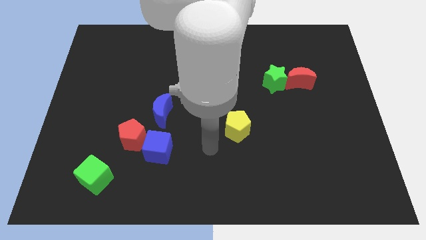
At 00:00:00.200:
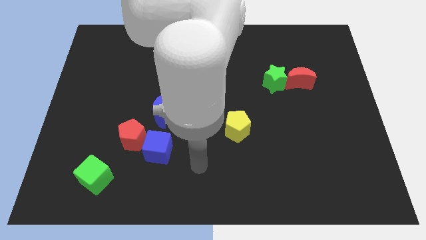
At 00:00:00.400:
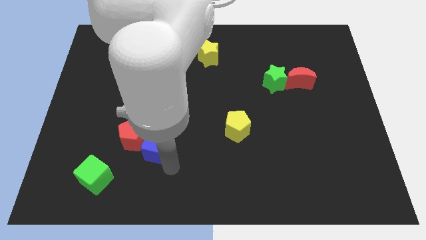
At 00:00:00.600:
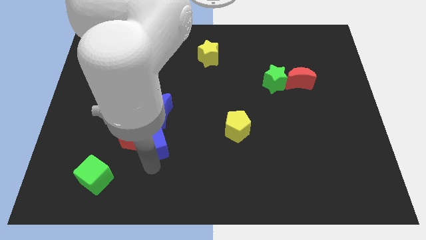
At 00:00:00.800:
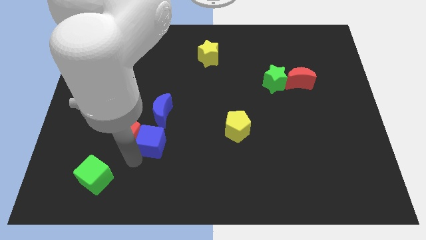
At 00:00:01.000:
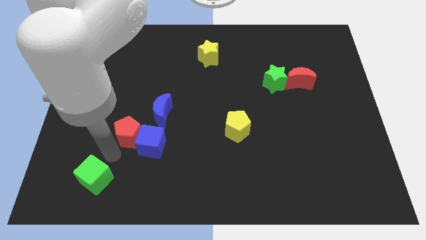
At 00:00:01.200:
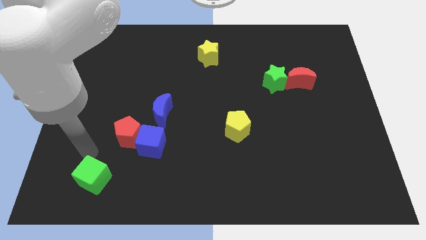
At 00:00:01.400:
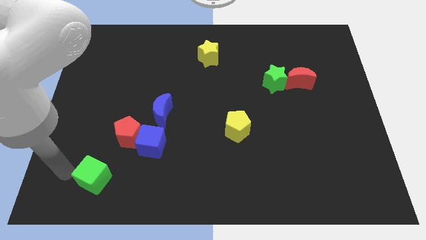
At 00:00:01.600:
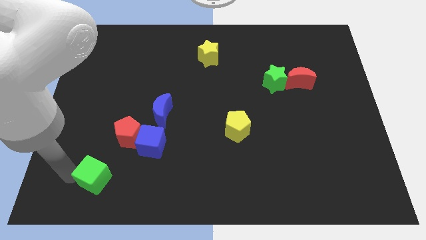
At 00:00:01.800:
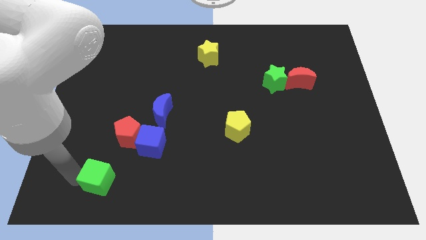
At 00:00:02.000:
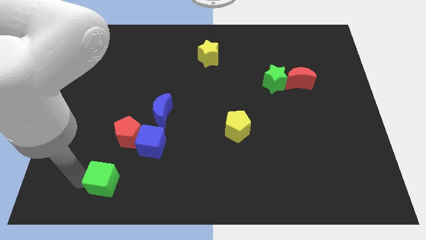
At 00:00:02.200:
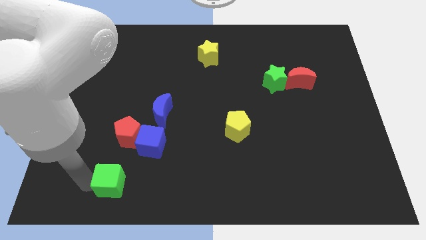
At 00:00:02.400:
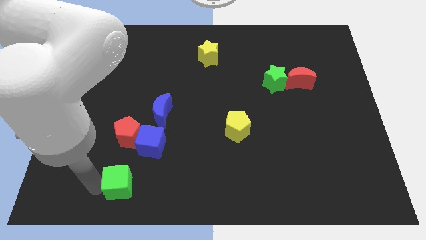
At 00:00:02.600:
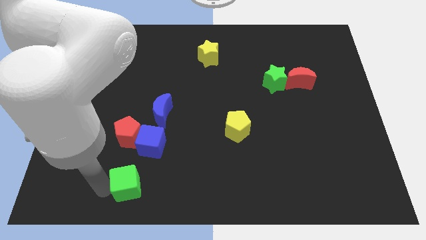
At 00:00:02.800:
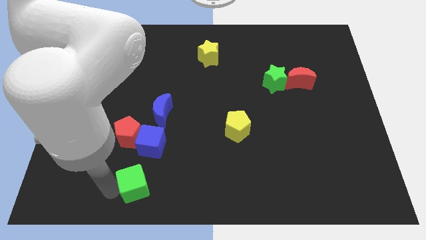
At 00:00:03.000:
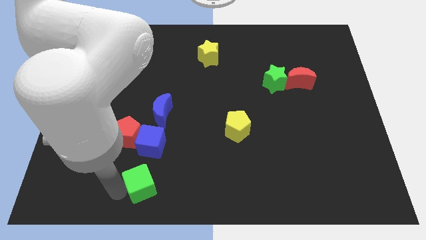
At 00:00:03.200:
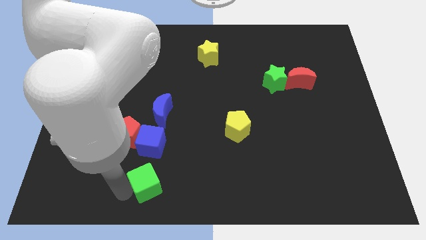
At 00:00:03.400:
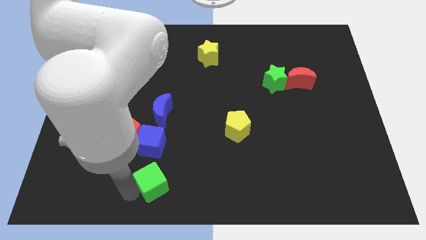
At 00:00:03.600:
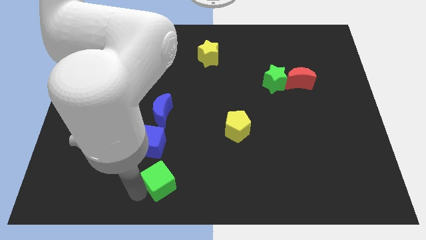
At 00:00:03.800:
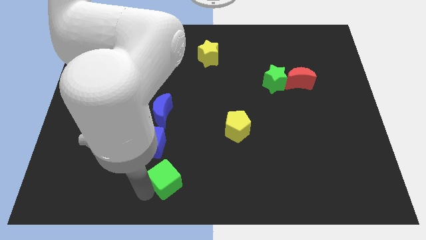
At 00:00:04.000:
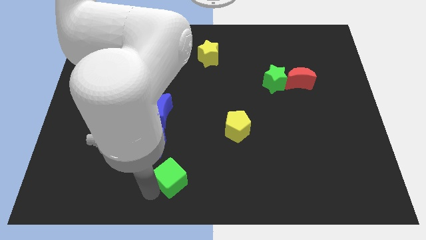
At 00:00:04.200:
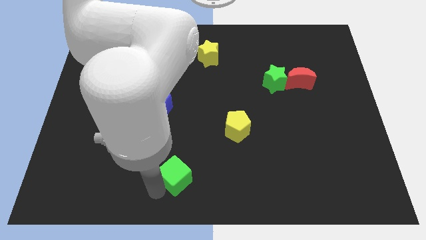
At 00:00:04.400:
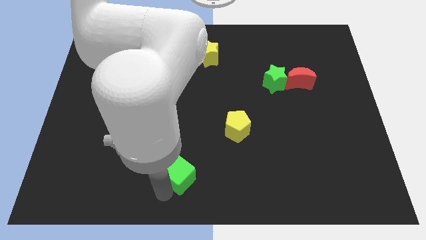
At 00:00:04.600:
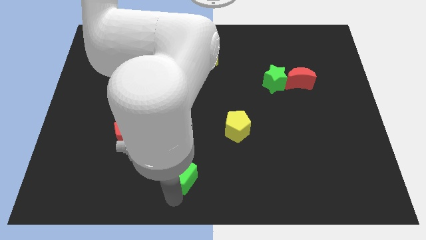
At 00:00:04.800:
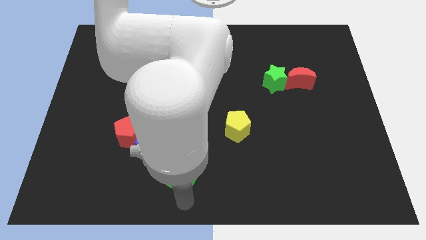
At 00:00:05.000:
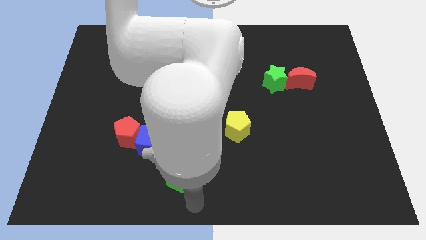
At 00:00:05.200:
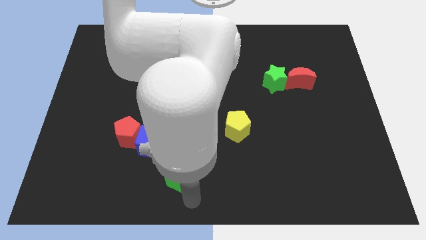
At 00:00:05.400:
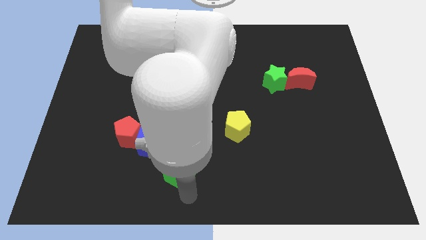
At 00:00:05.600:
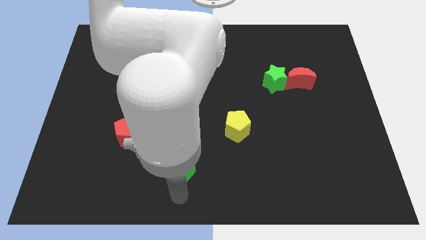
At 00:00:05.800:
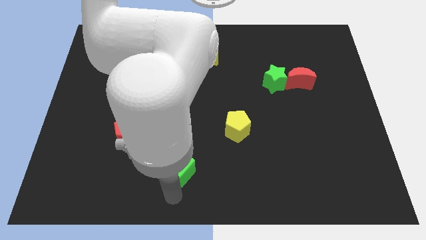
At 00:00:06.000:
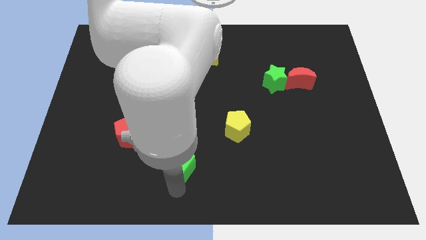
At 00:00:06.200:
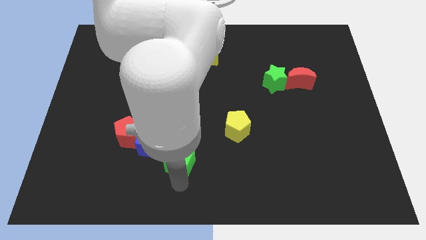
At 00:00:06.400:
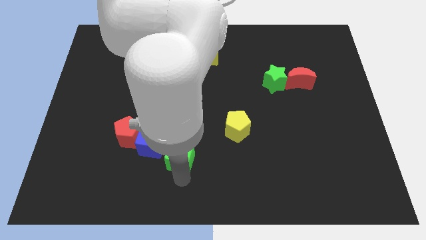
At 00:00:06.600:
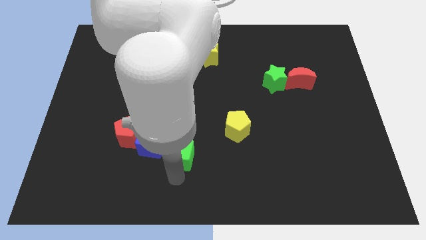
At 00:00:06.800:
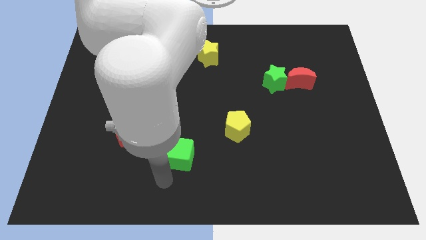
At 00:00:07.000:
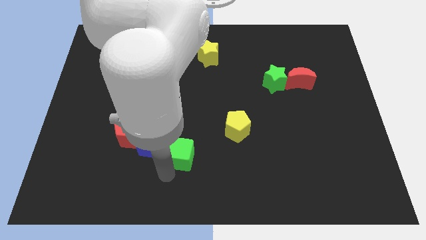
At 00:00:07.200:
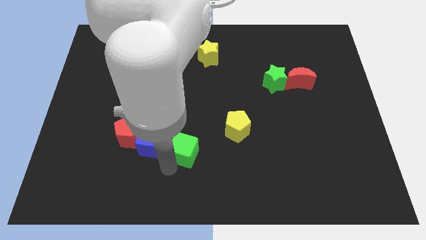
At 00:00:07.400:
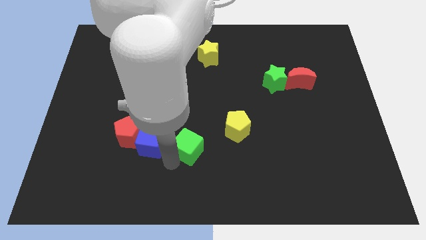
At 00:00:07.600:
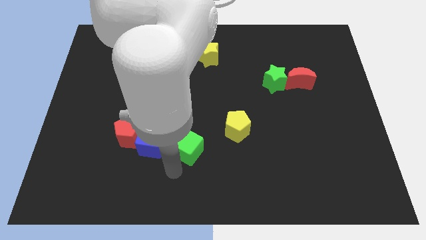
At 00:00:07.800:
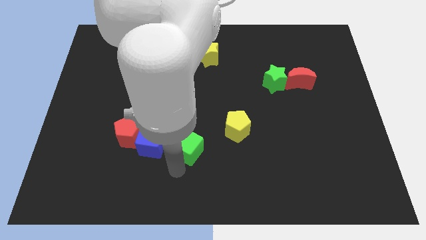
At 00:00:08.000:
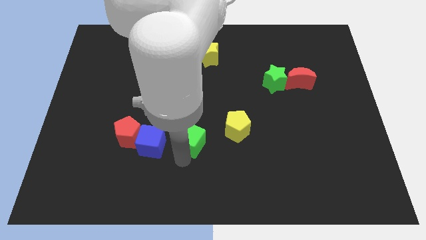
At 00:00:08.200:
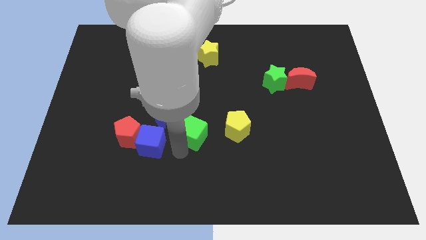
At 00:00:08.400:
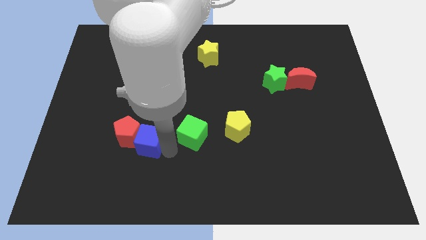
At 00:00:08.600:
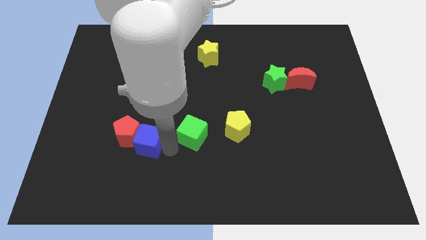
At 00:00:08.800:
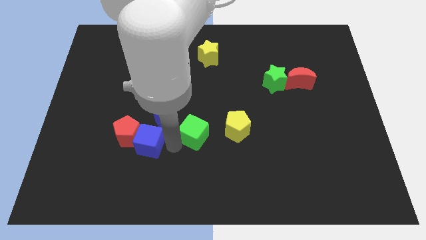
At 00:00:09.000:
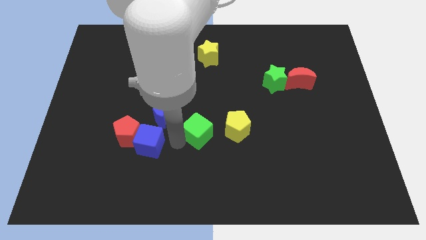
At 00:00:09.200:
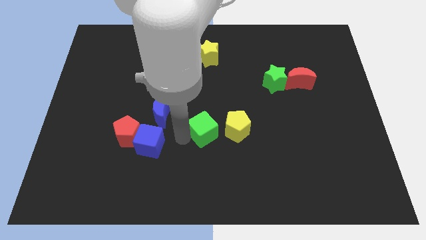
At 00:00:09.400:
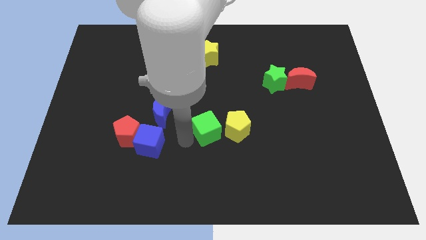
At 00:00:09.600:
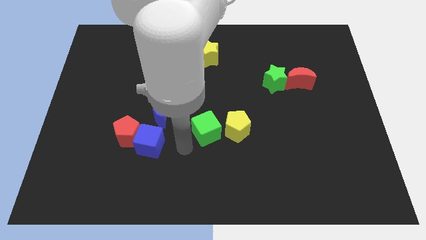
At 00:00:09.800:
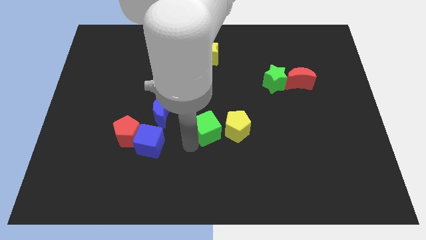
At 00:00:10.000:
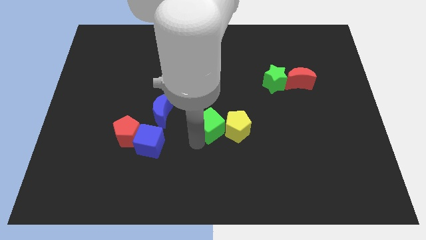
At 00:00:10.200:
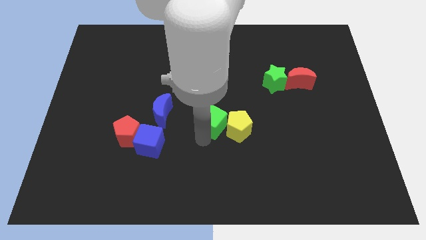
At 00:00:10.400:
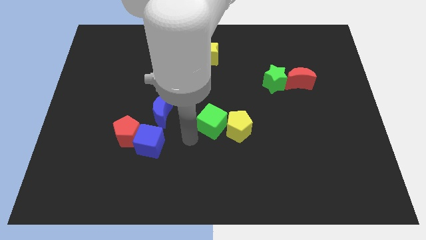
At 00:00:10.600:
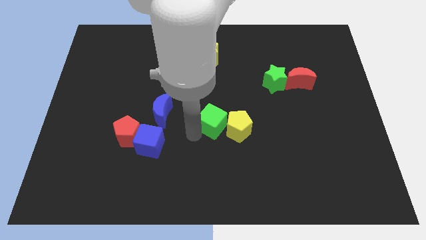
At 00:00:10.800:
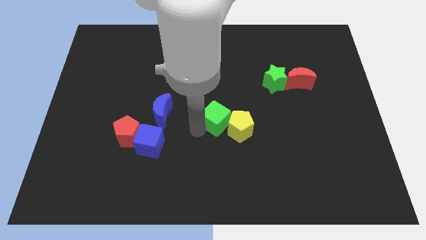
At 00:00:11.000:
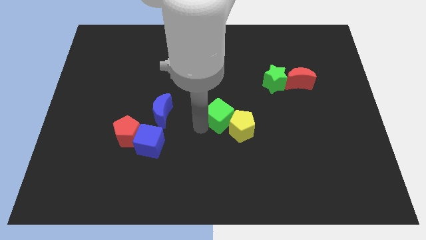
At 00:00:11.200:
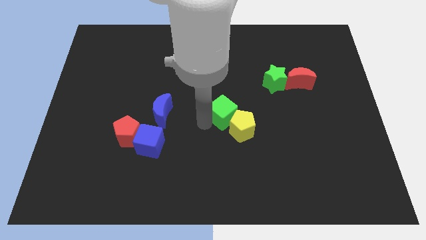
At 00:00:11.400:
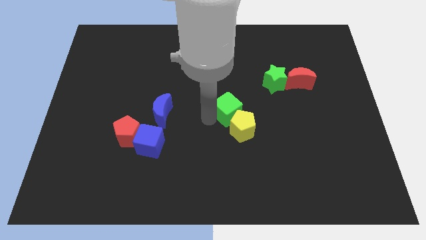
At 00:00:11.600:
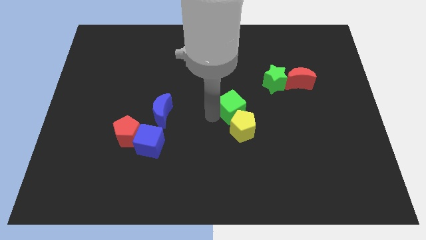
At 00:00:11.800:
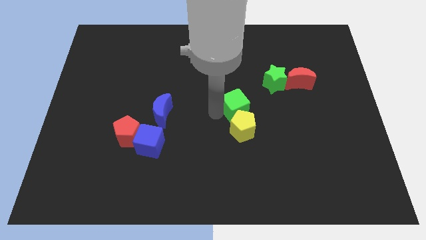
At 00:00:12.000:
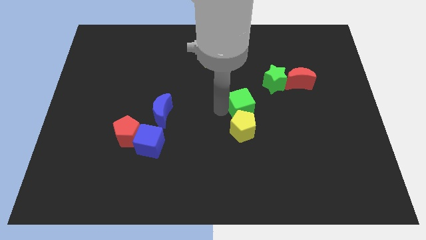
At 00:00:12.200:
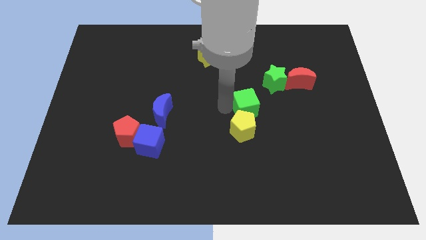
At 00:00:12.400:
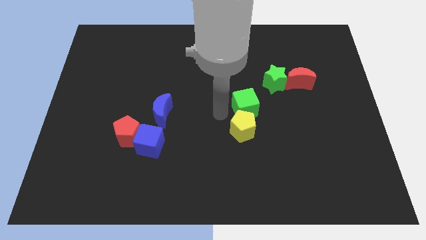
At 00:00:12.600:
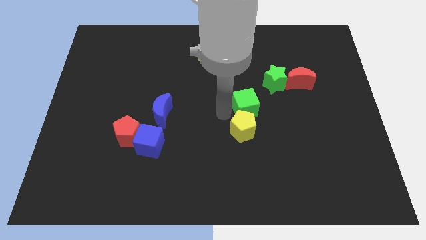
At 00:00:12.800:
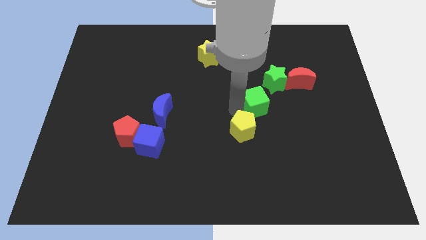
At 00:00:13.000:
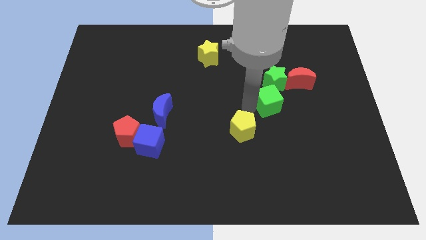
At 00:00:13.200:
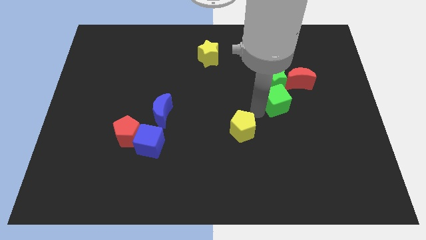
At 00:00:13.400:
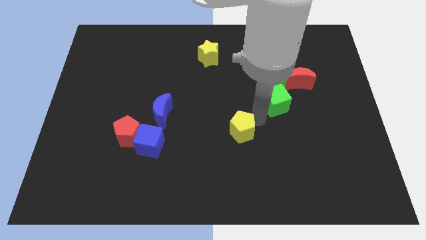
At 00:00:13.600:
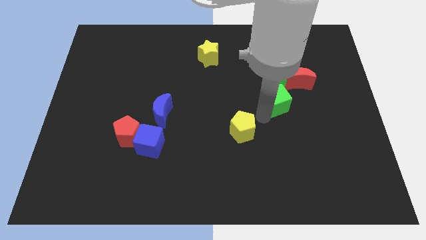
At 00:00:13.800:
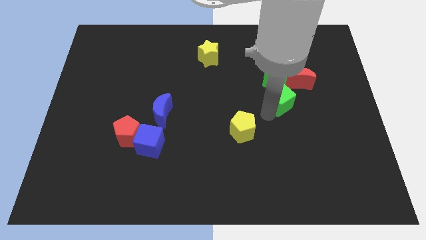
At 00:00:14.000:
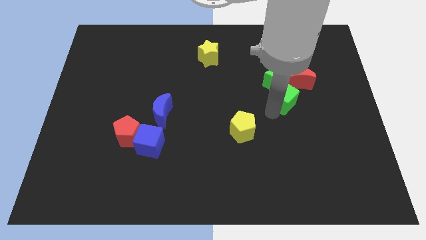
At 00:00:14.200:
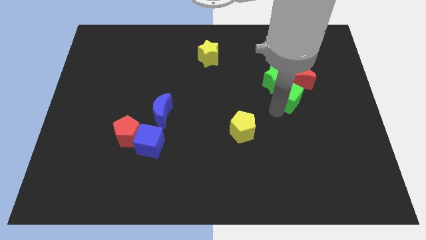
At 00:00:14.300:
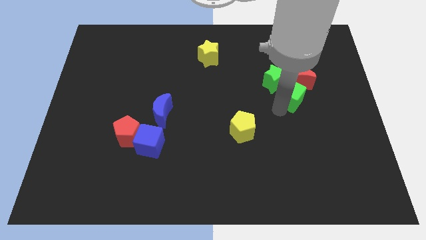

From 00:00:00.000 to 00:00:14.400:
move the green cube towards the red moon
